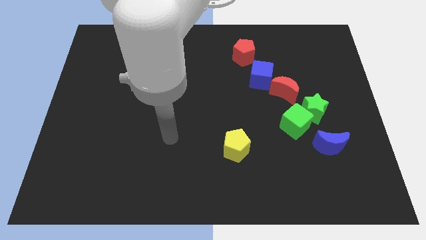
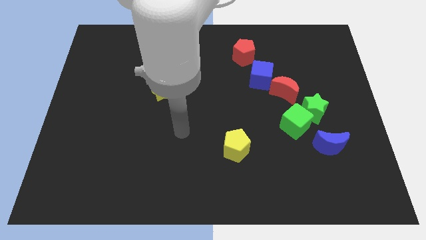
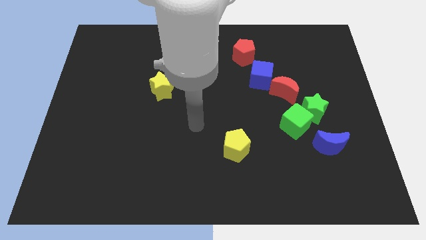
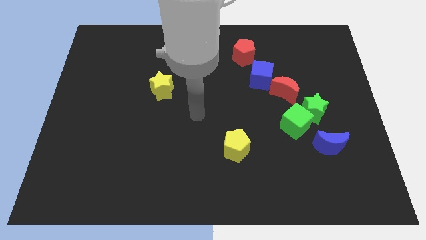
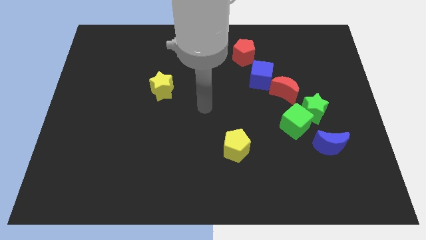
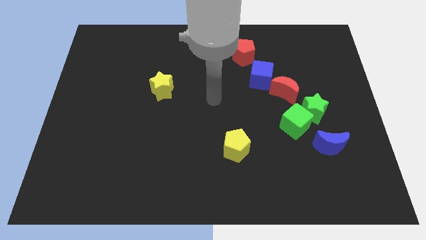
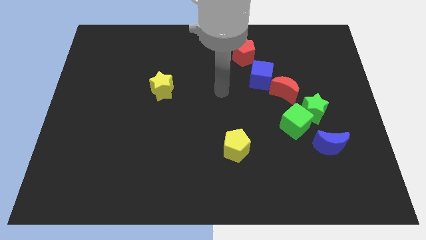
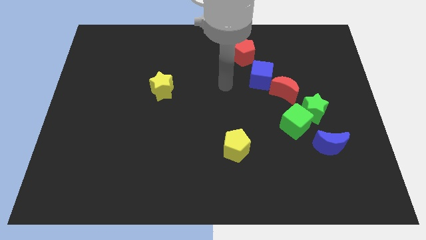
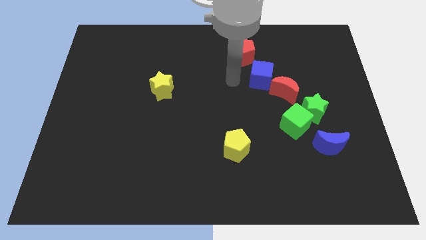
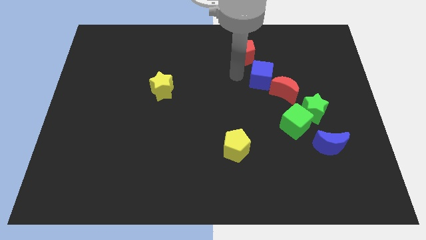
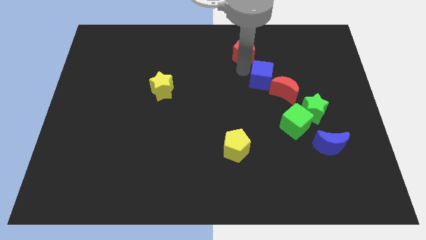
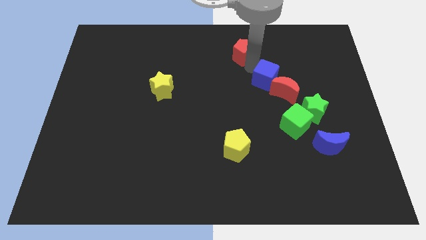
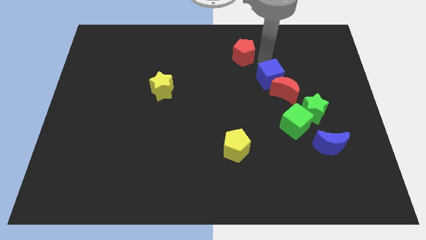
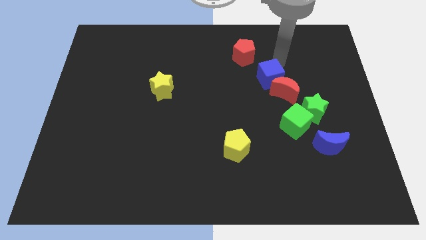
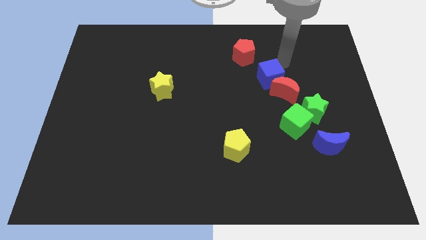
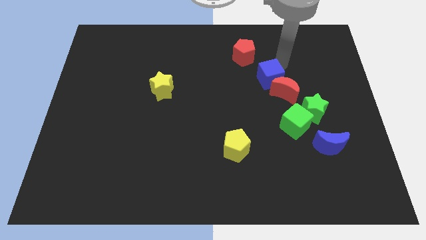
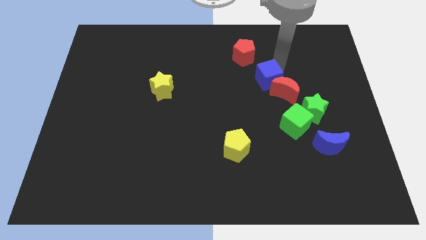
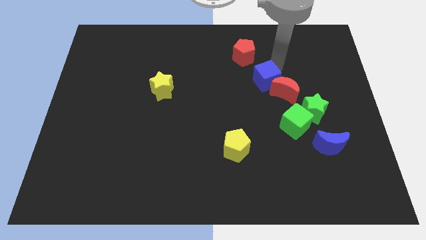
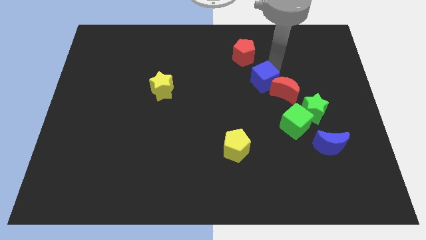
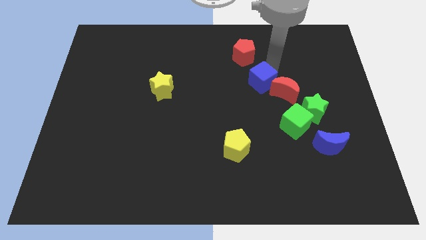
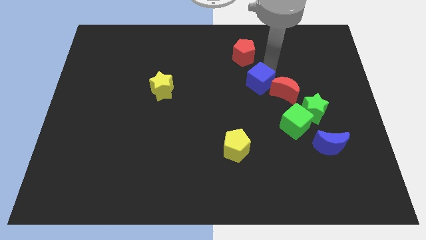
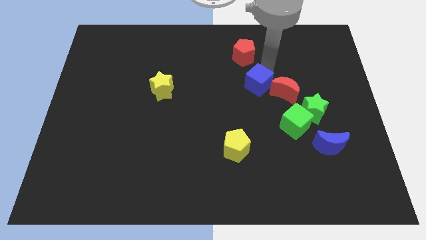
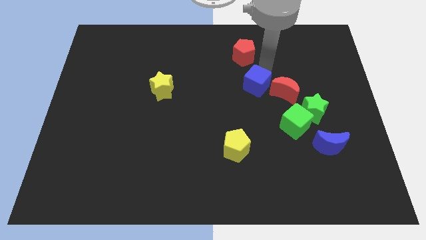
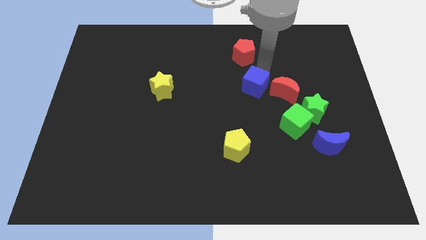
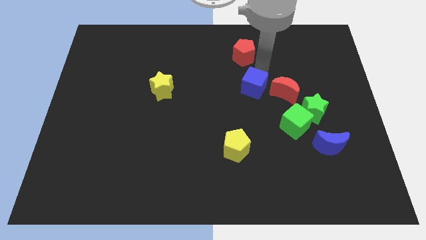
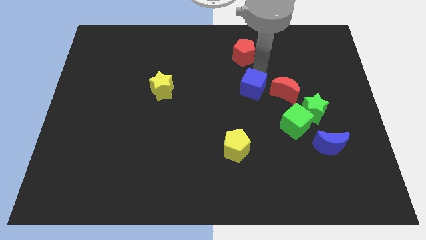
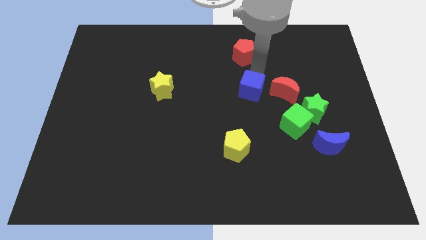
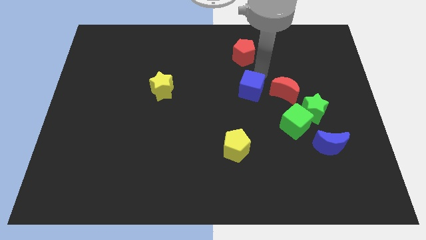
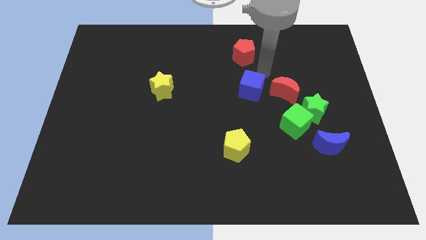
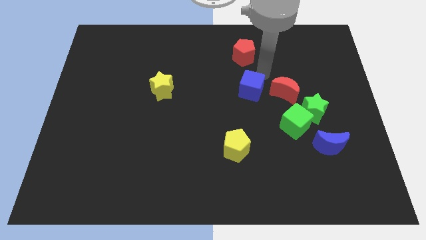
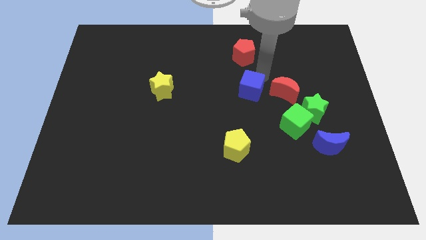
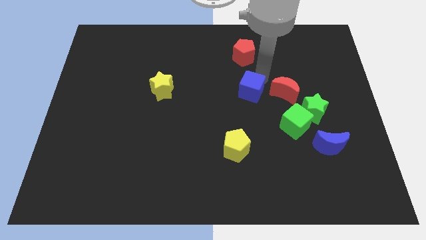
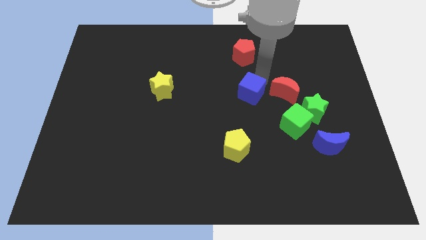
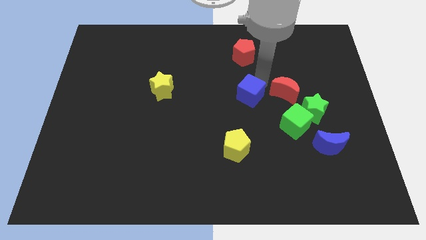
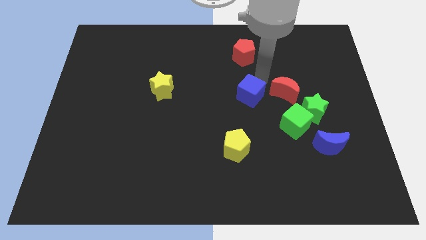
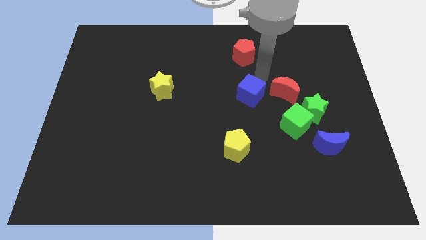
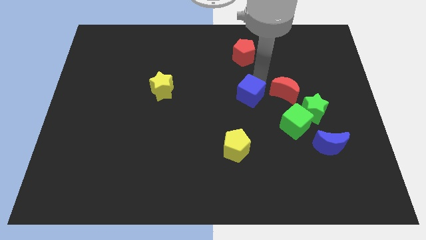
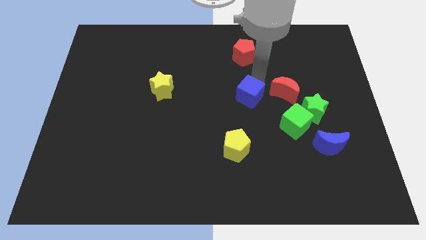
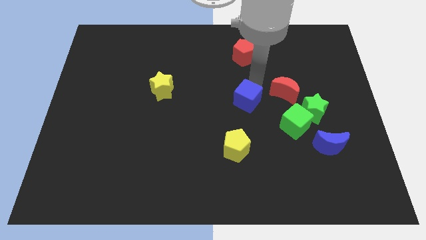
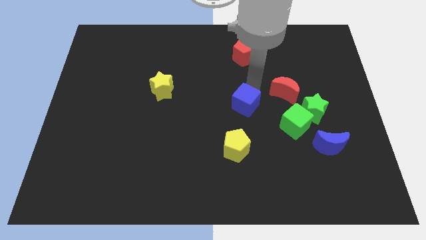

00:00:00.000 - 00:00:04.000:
pull the blue cube apart from the red moon and red pentagon

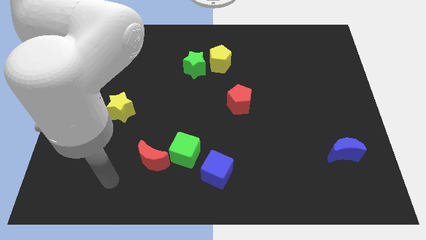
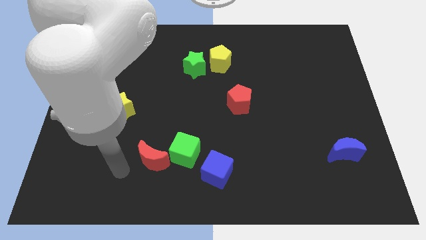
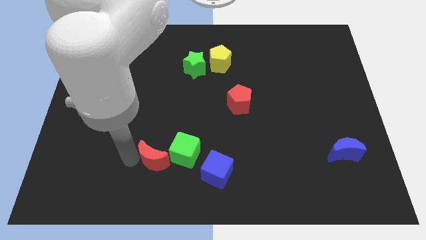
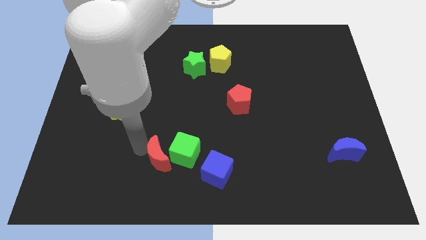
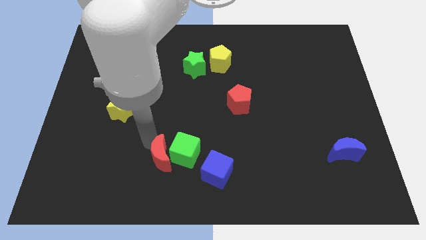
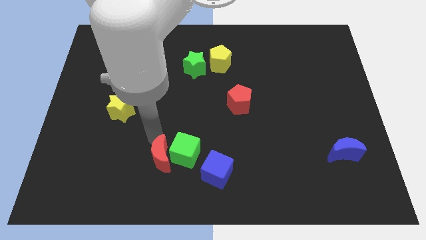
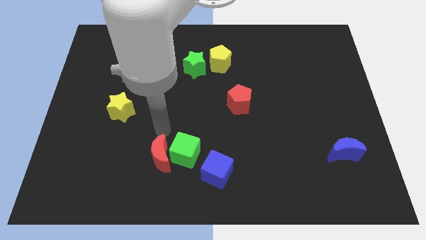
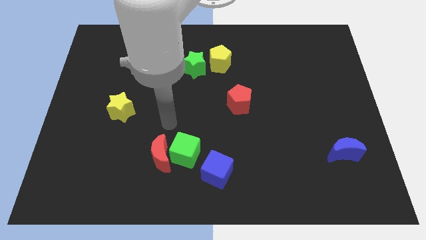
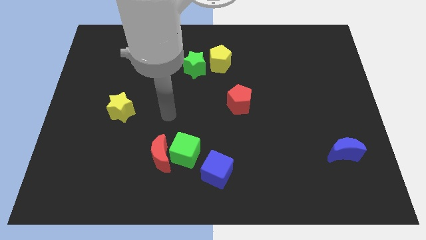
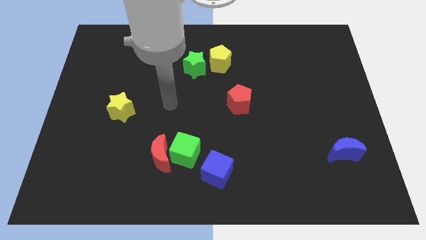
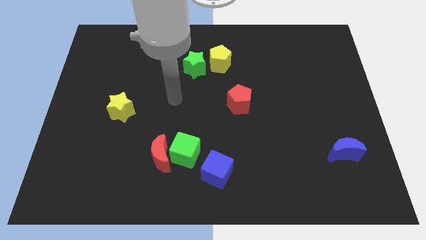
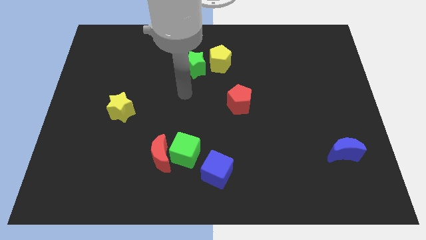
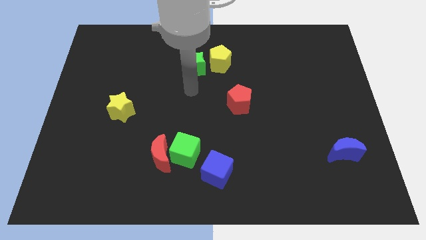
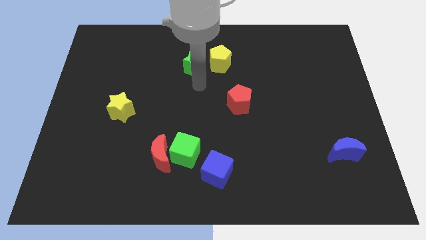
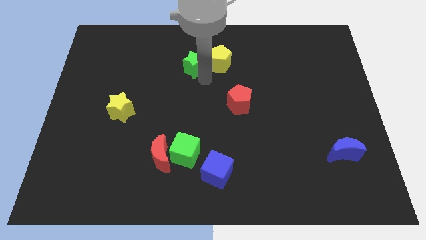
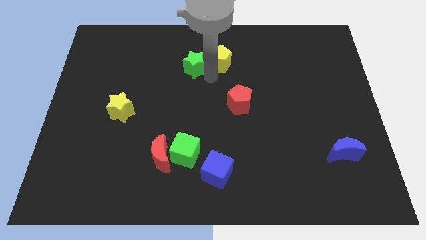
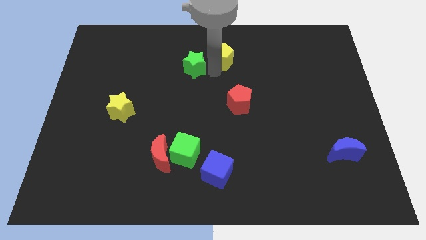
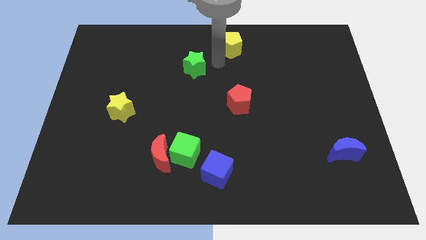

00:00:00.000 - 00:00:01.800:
move the green star away from the yellow pentagon

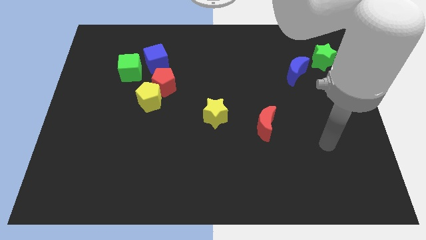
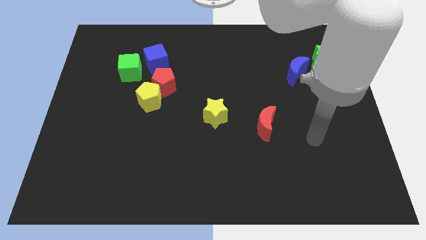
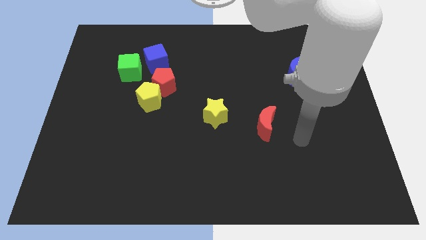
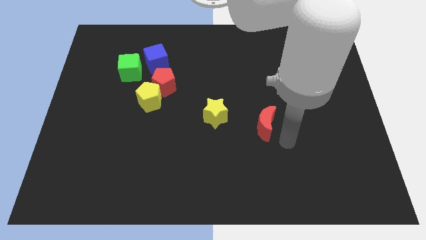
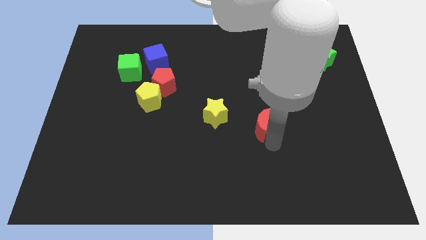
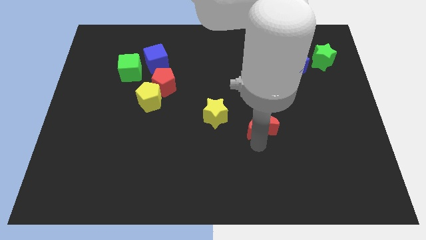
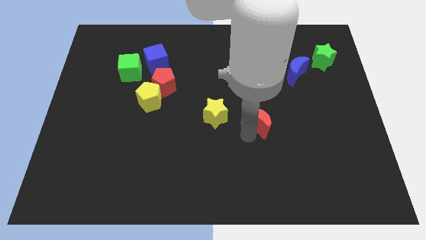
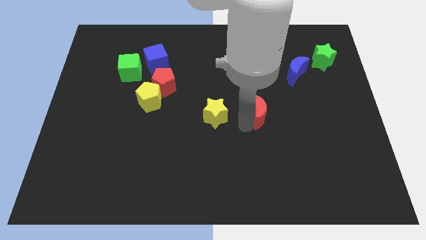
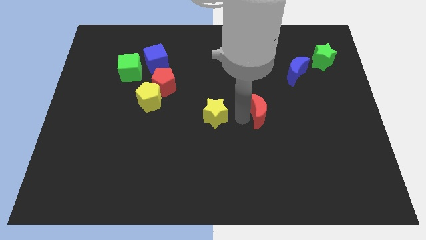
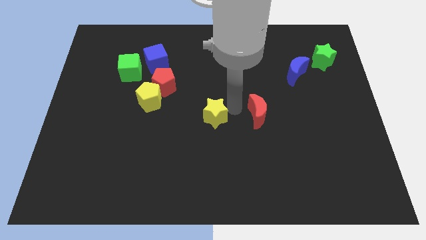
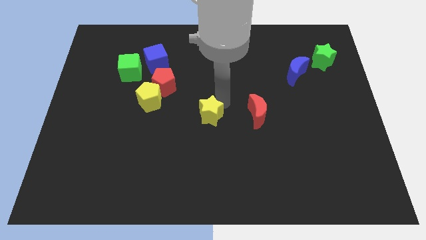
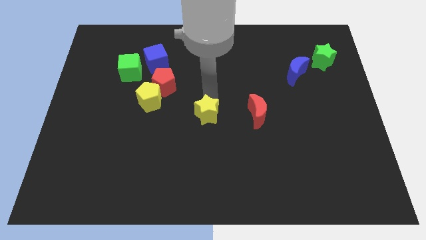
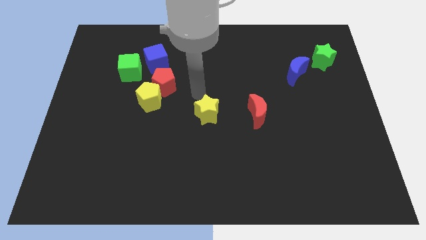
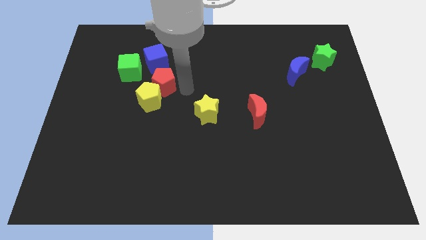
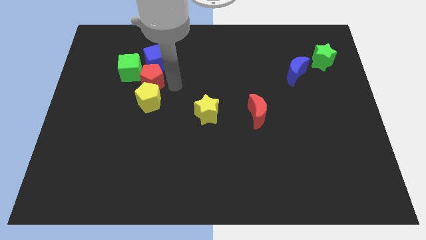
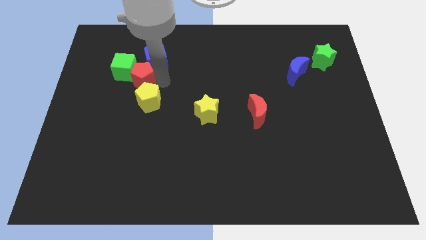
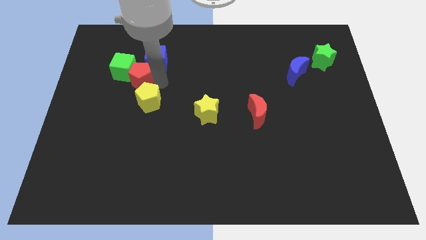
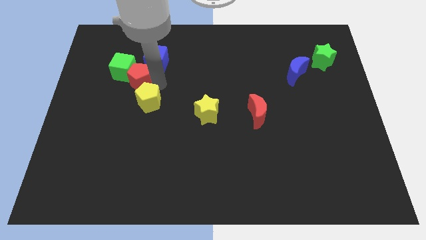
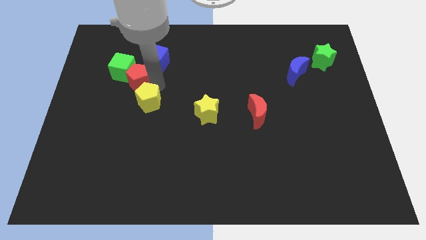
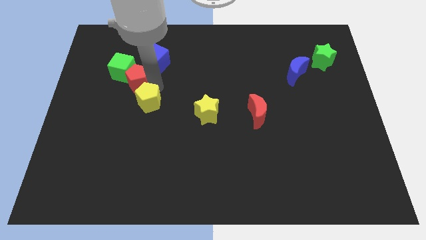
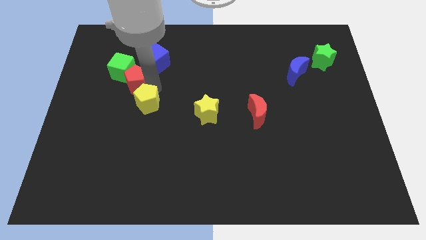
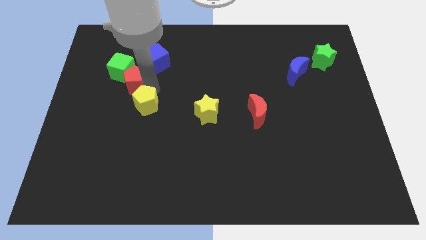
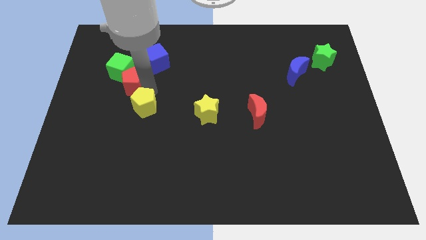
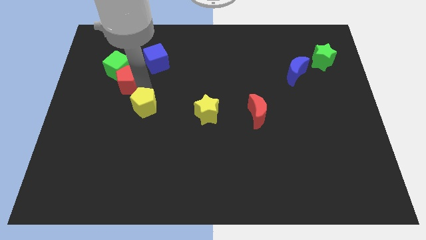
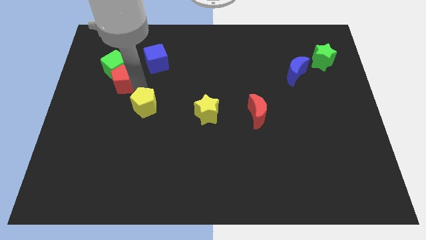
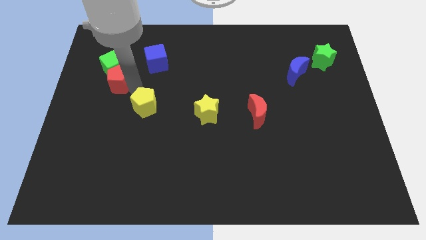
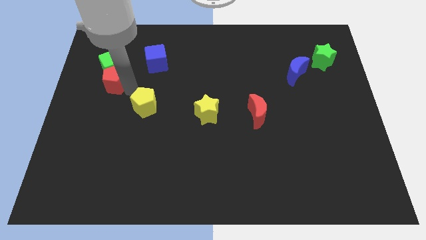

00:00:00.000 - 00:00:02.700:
separate the yellow pentagon from the red pentagon

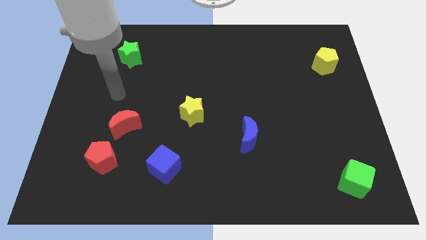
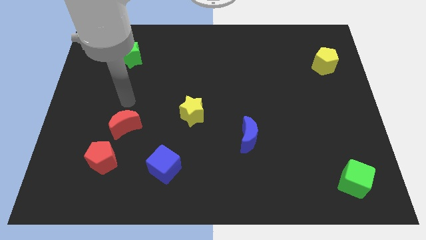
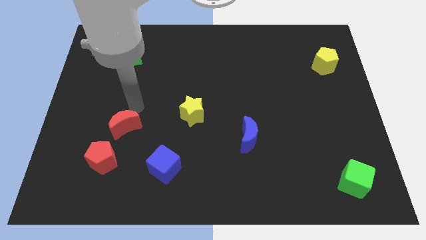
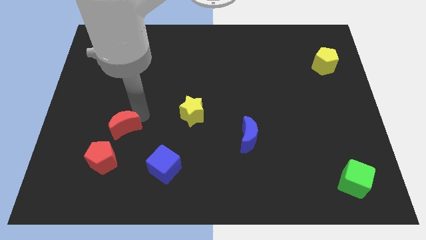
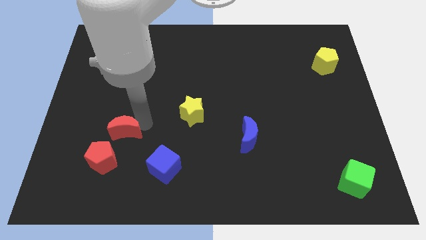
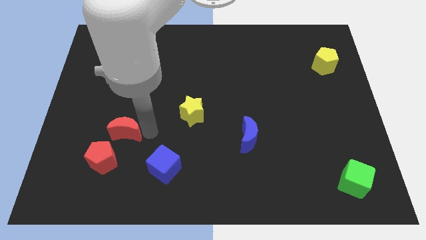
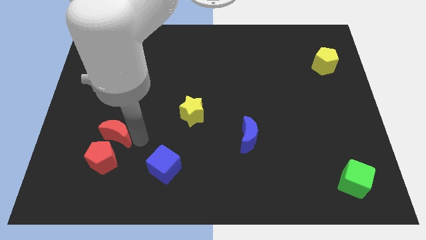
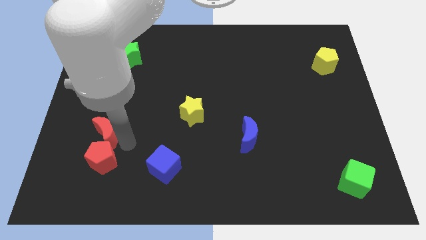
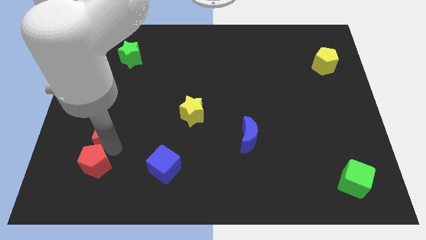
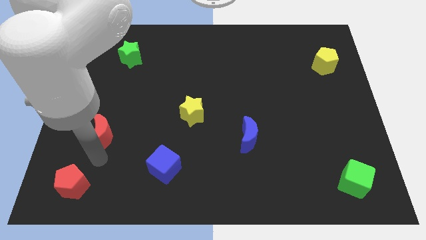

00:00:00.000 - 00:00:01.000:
move the red moon away from the red pentagon
